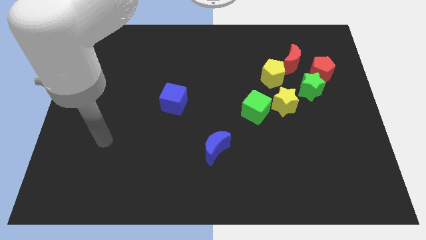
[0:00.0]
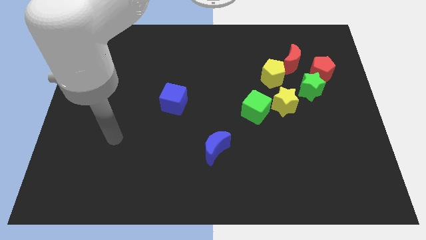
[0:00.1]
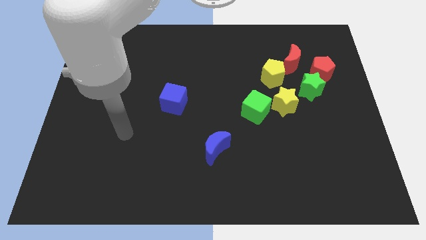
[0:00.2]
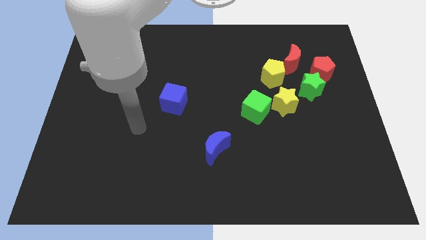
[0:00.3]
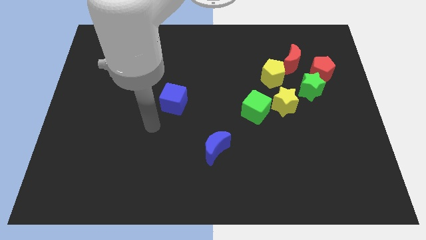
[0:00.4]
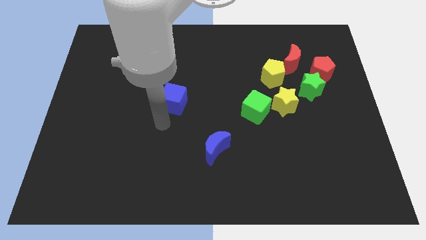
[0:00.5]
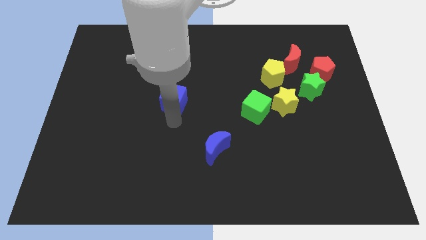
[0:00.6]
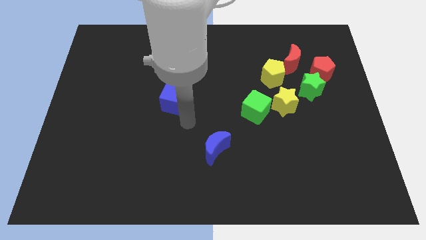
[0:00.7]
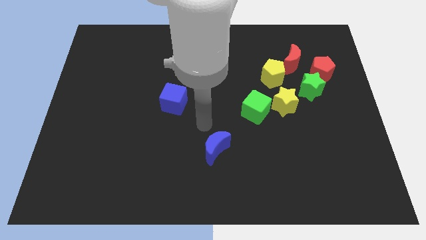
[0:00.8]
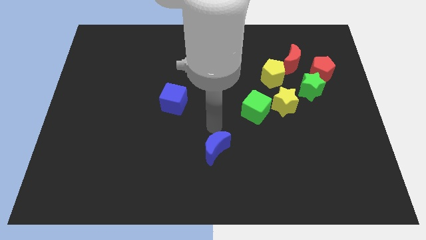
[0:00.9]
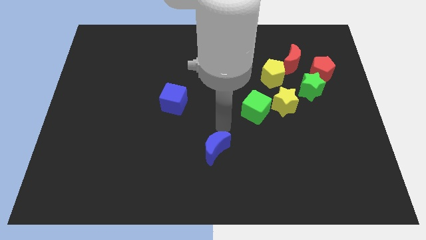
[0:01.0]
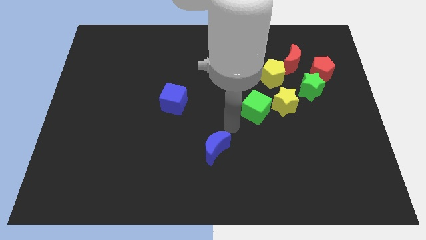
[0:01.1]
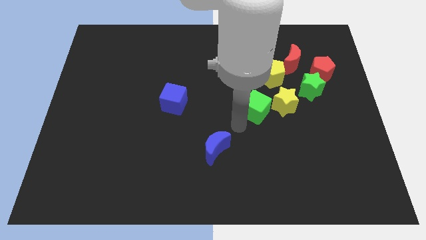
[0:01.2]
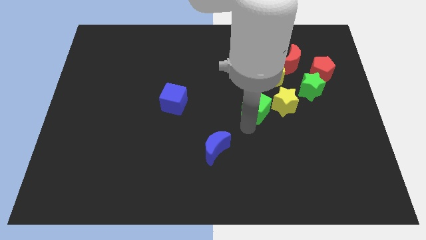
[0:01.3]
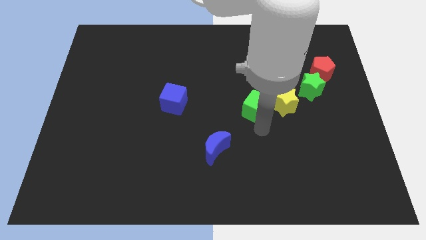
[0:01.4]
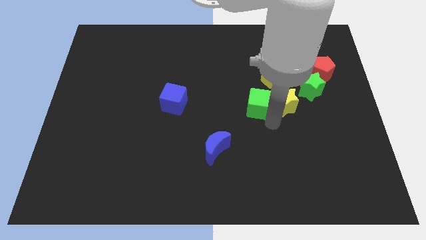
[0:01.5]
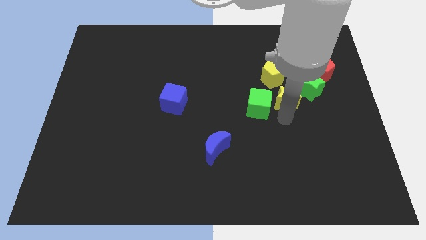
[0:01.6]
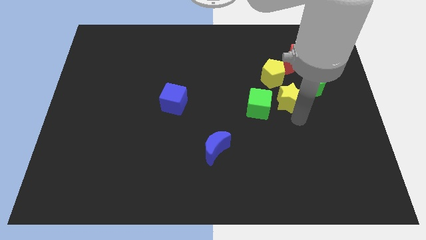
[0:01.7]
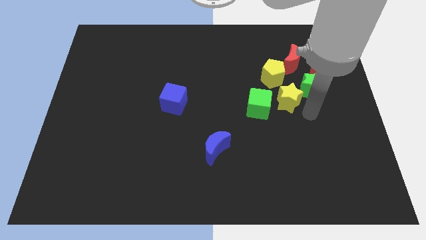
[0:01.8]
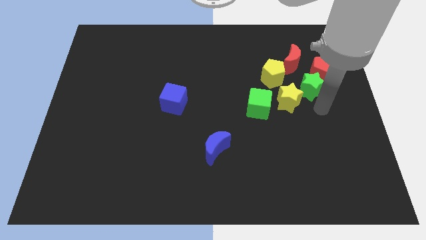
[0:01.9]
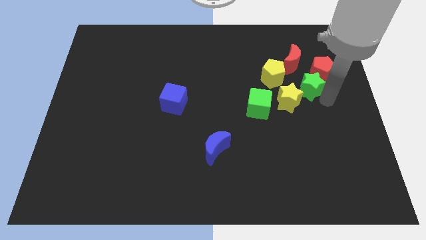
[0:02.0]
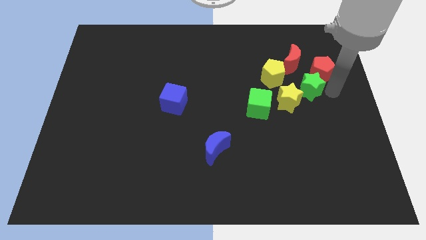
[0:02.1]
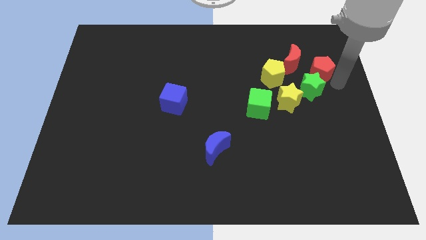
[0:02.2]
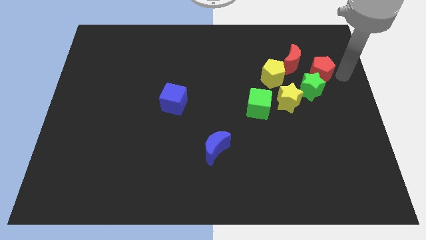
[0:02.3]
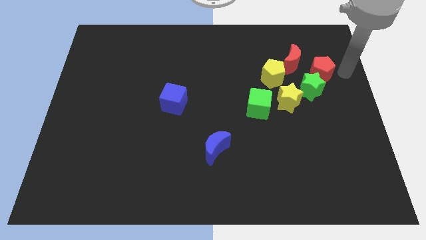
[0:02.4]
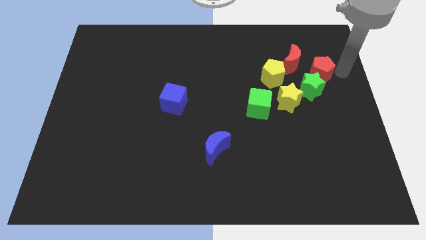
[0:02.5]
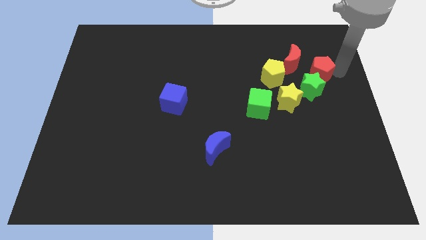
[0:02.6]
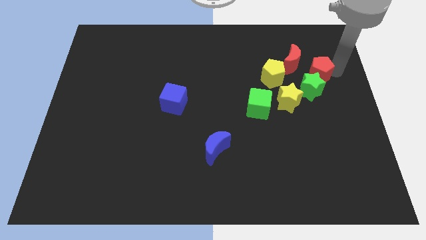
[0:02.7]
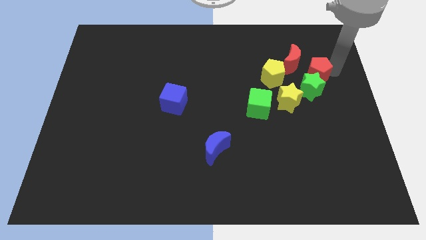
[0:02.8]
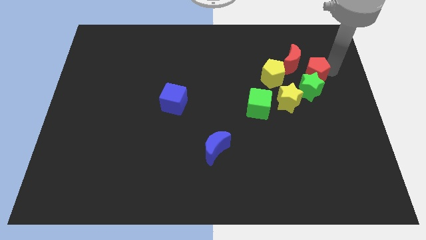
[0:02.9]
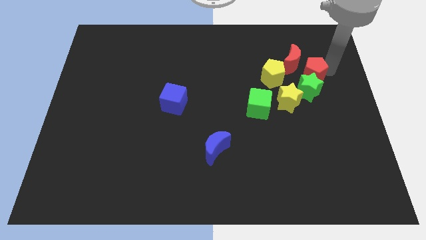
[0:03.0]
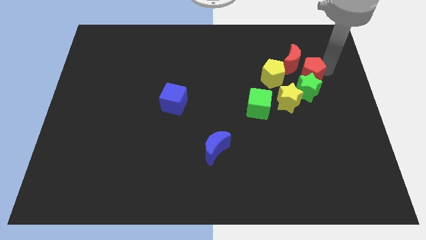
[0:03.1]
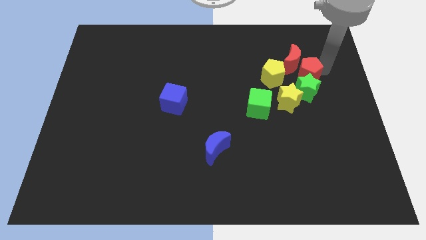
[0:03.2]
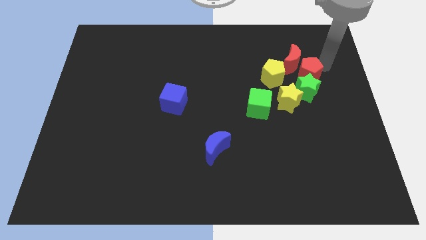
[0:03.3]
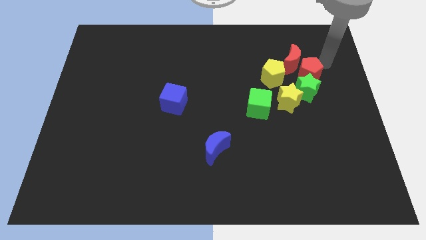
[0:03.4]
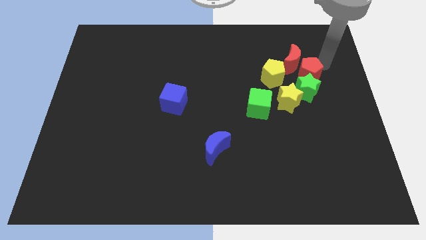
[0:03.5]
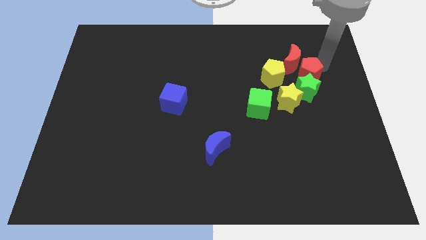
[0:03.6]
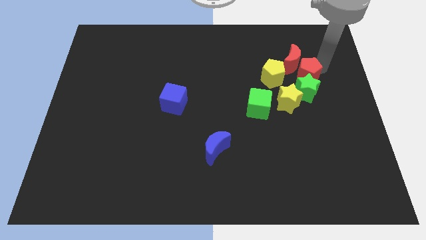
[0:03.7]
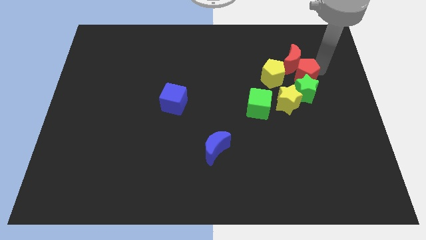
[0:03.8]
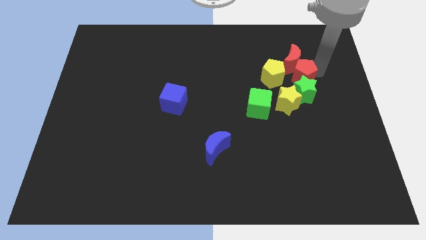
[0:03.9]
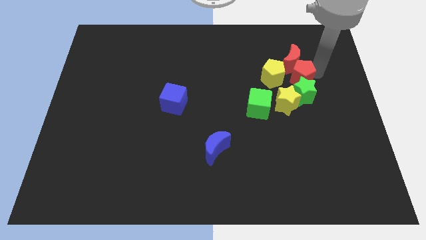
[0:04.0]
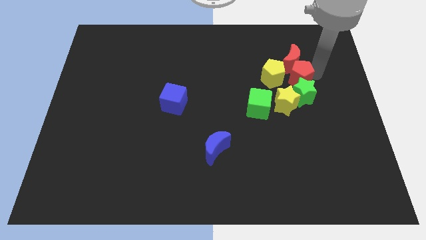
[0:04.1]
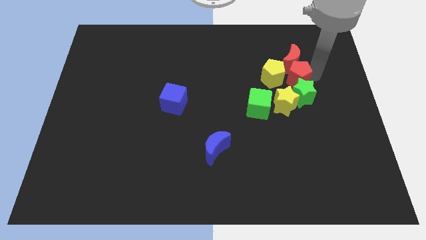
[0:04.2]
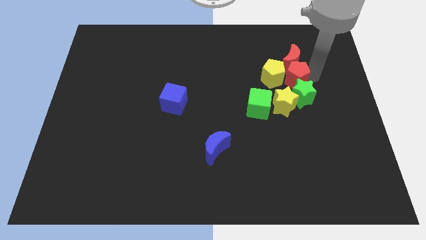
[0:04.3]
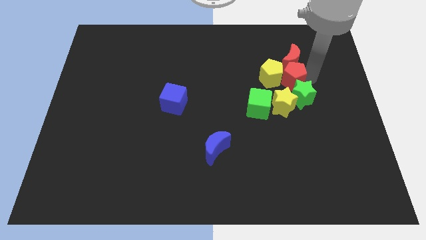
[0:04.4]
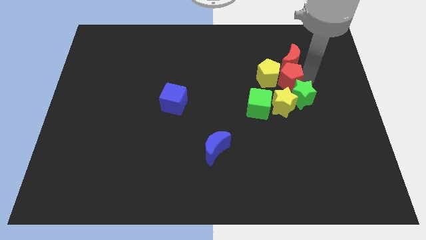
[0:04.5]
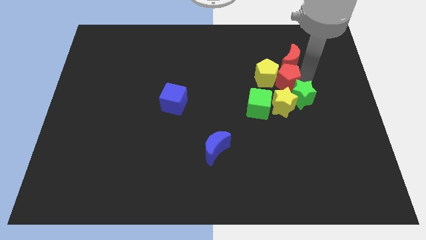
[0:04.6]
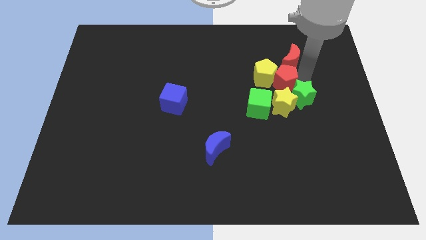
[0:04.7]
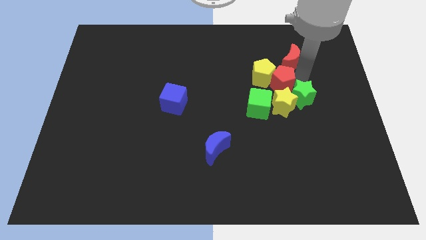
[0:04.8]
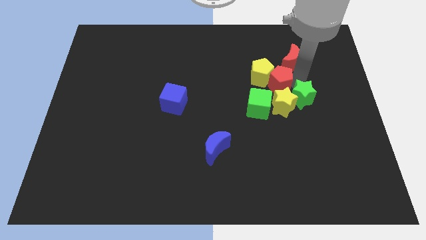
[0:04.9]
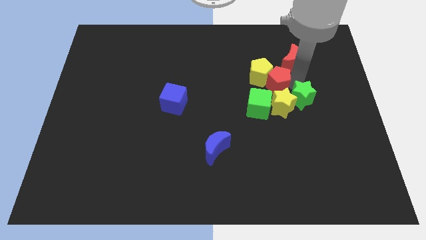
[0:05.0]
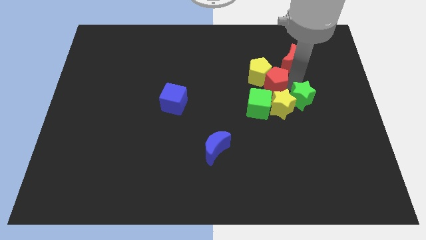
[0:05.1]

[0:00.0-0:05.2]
put the red pentagon to the top side of the green cube

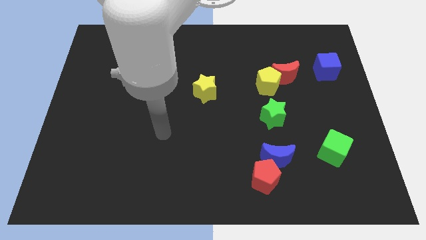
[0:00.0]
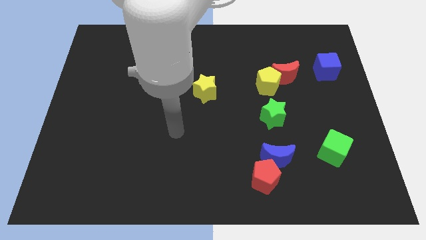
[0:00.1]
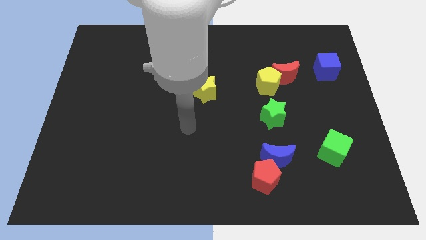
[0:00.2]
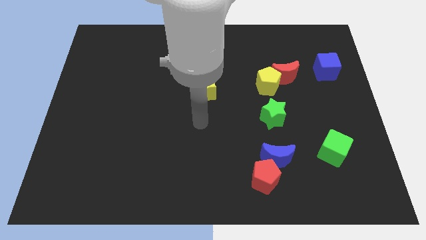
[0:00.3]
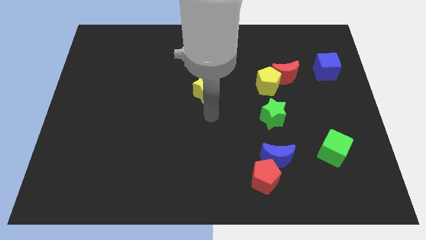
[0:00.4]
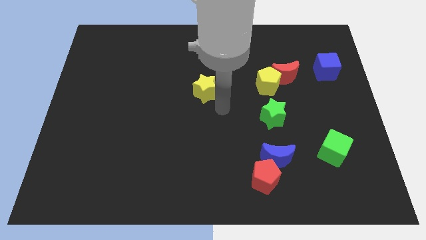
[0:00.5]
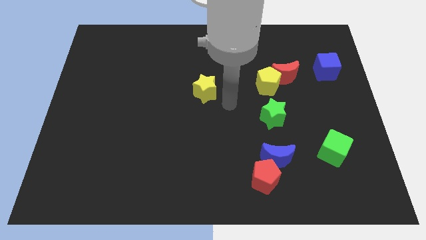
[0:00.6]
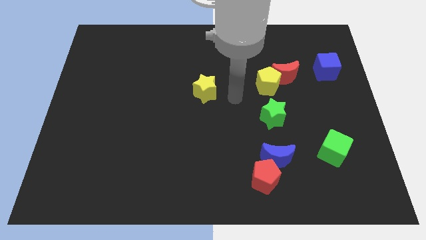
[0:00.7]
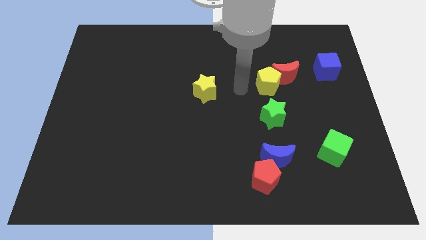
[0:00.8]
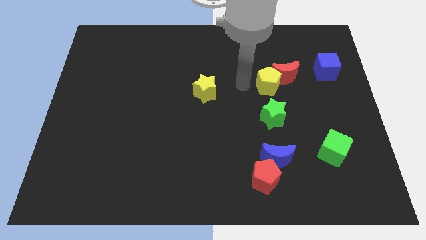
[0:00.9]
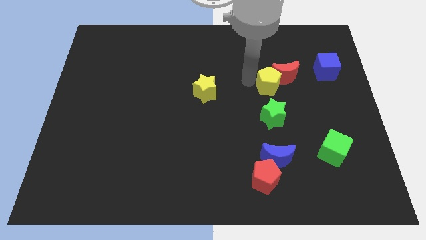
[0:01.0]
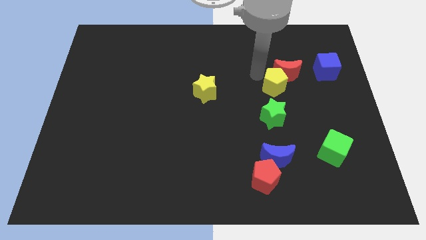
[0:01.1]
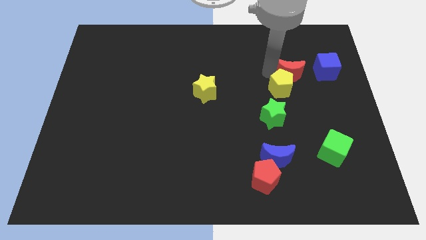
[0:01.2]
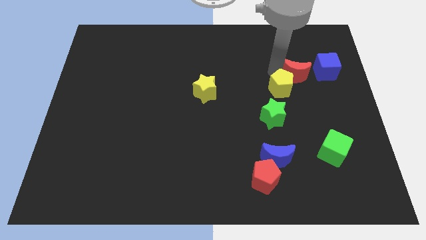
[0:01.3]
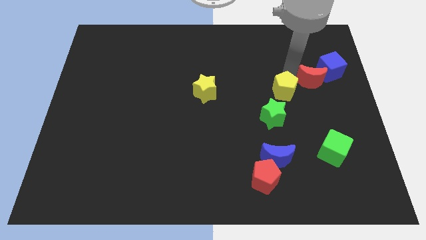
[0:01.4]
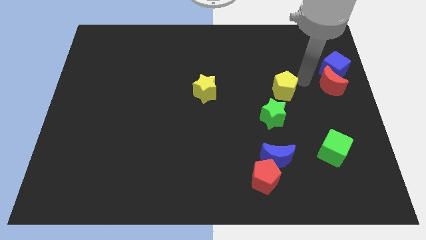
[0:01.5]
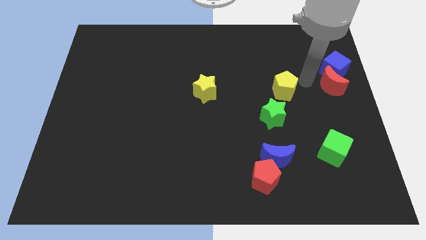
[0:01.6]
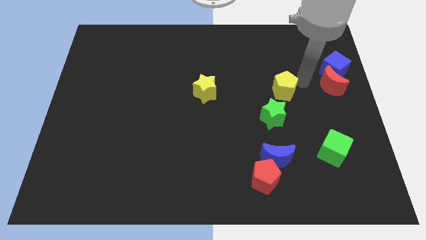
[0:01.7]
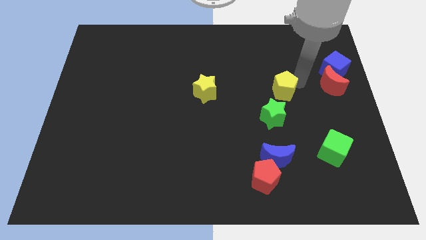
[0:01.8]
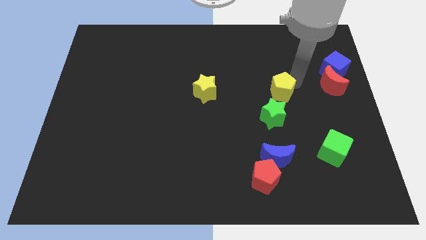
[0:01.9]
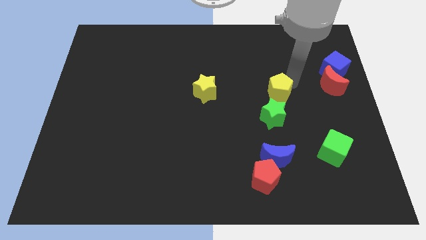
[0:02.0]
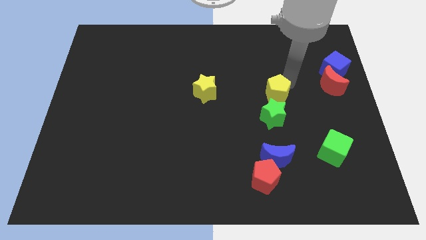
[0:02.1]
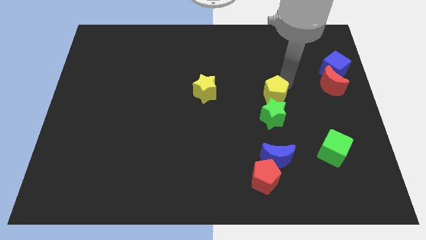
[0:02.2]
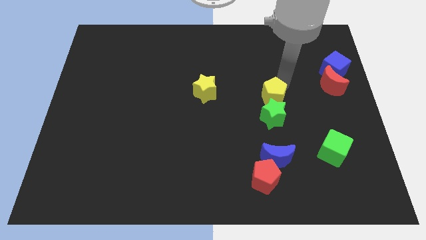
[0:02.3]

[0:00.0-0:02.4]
put the yellow pentagon to the top left side of the green star
